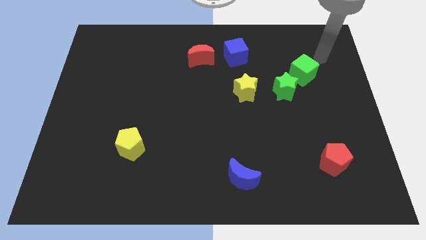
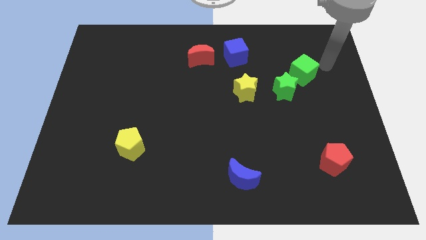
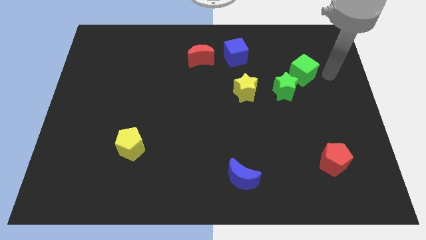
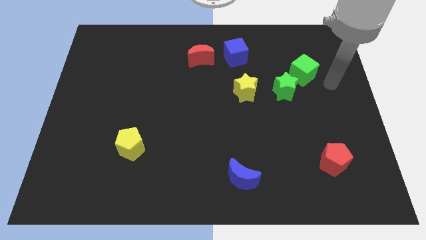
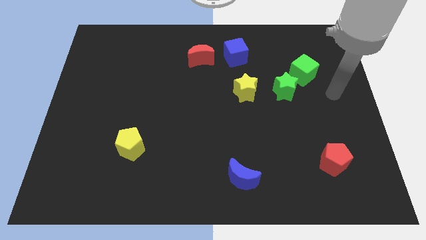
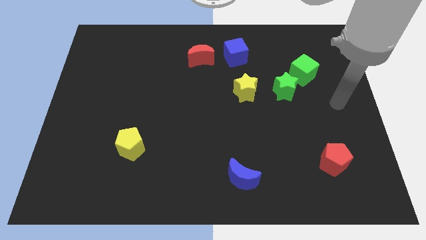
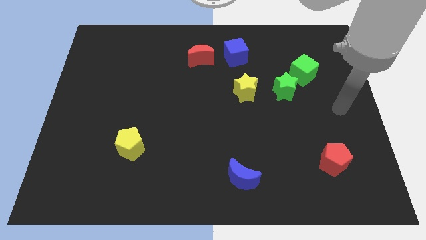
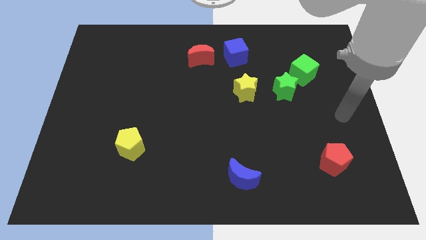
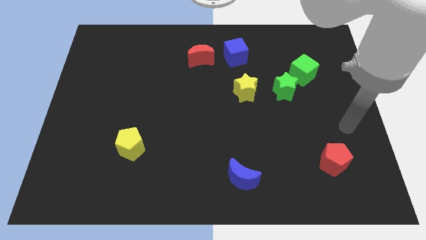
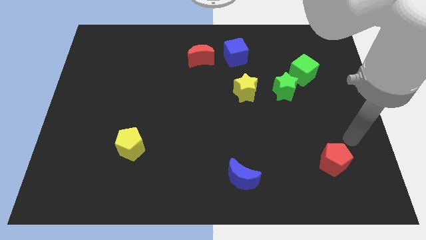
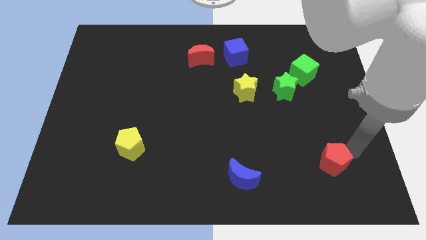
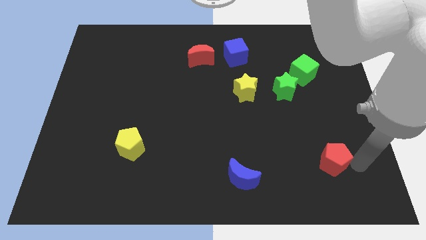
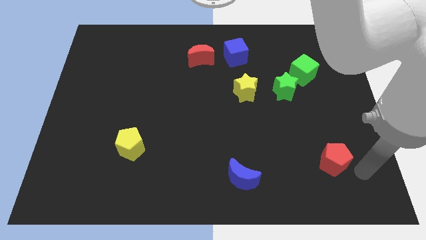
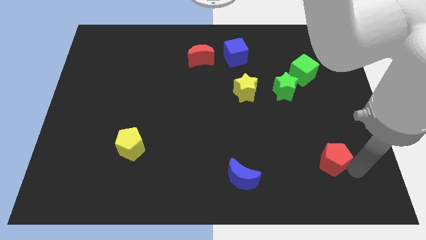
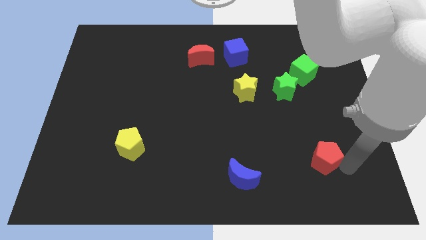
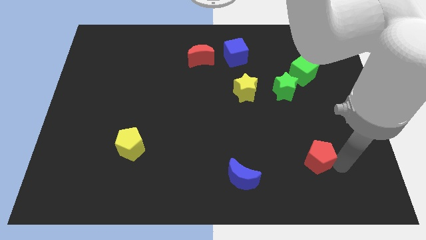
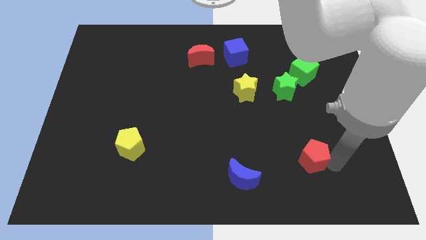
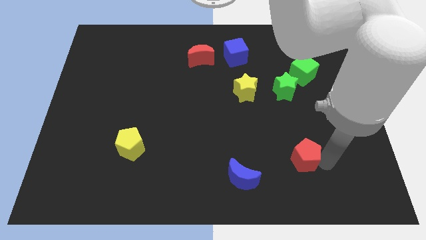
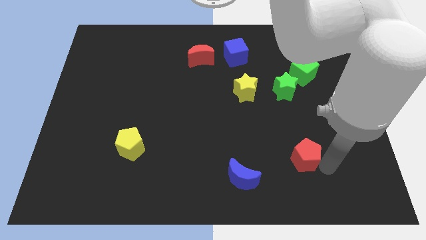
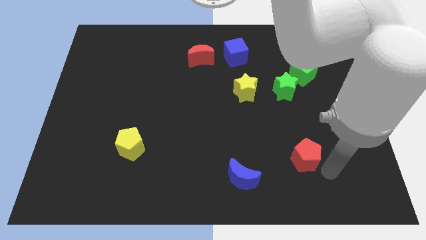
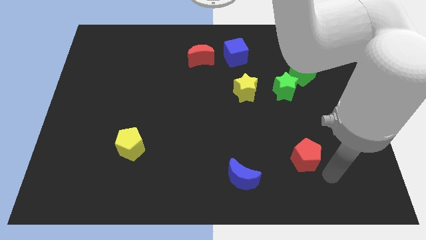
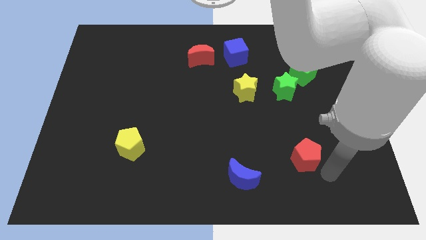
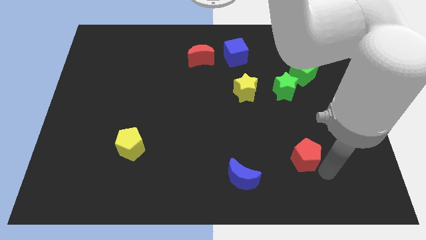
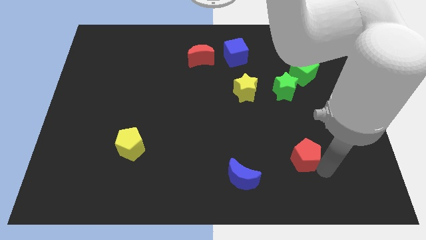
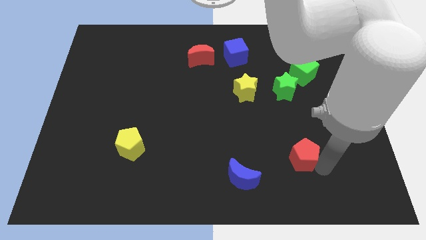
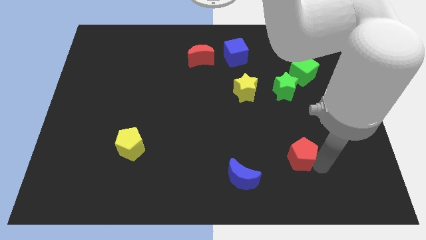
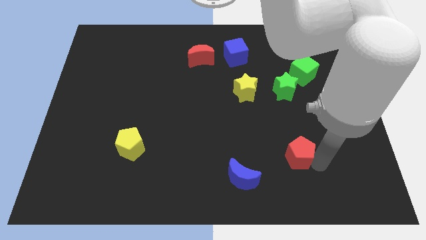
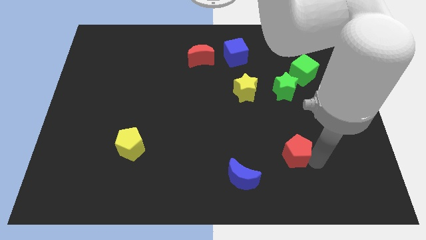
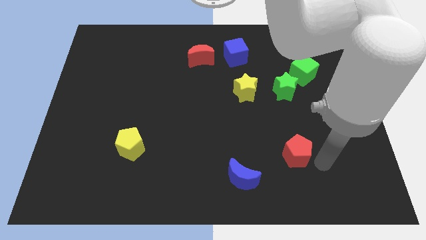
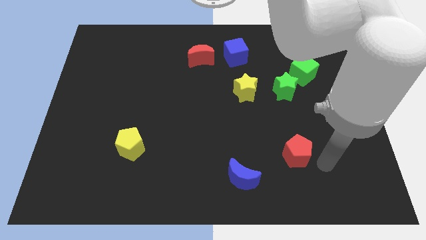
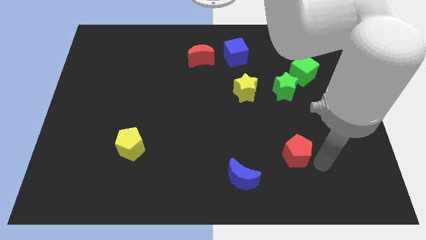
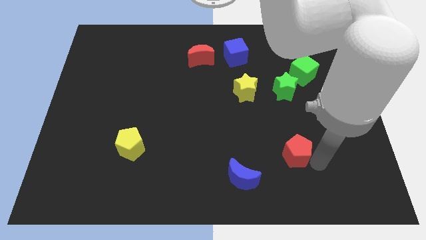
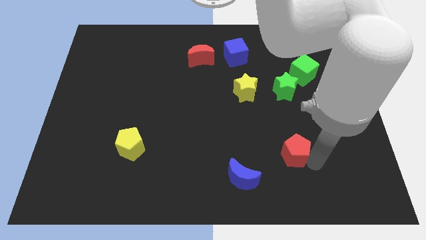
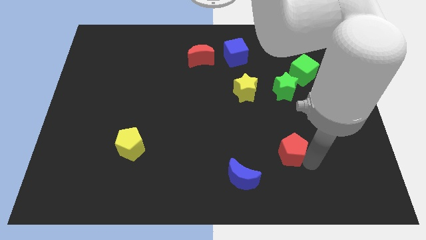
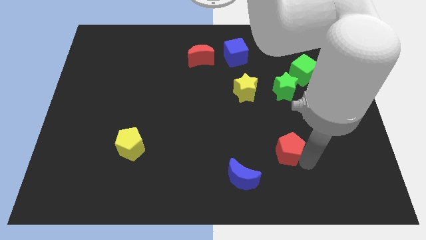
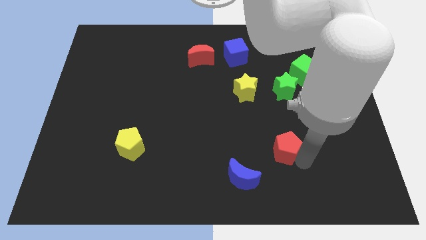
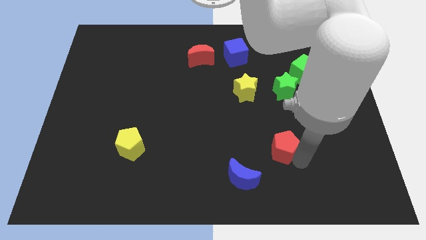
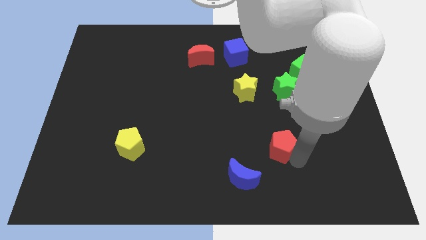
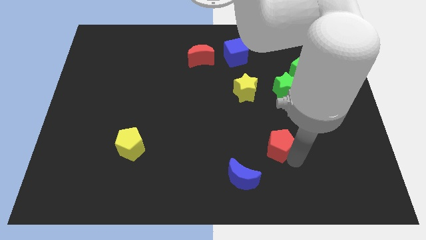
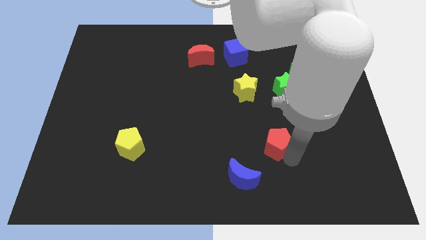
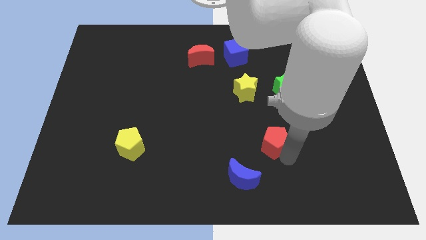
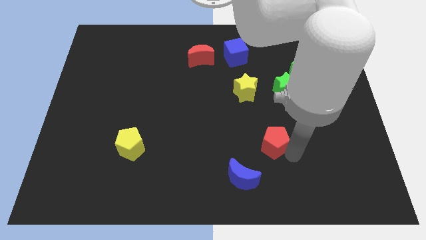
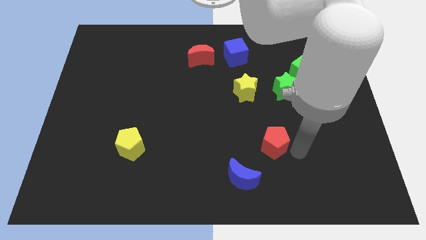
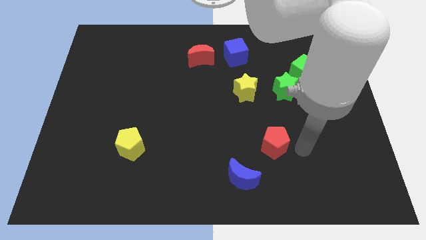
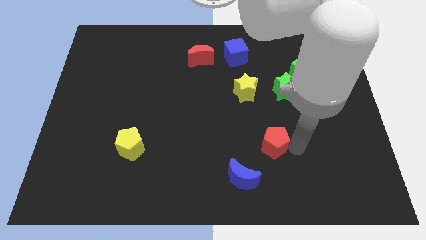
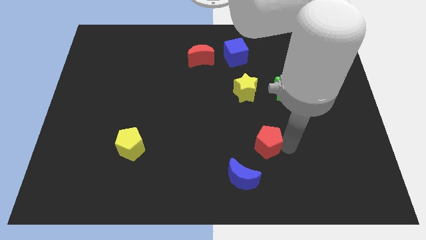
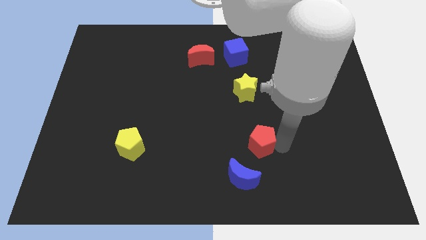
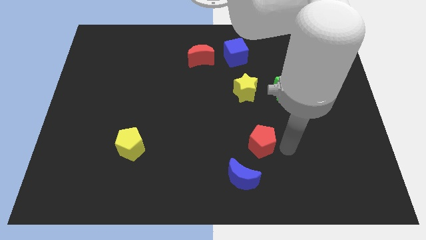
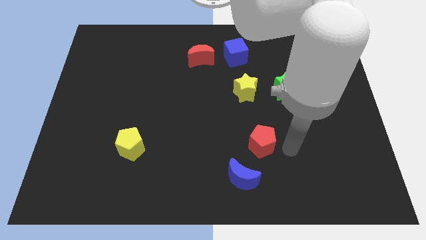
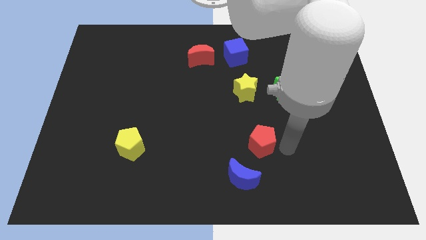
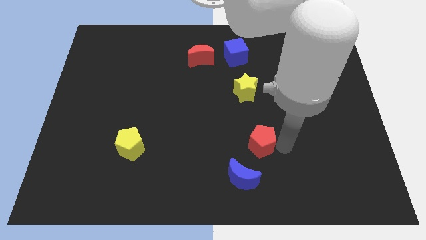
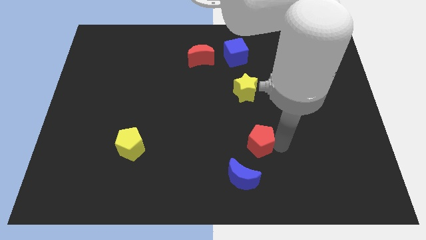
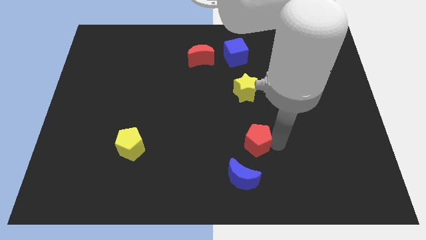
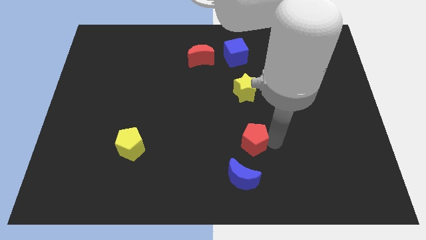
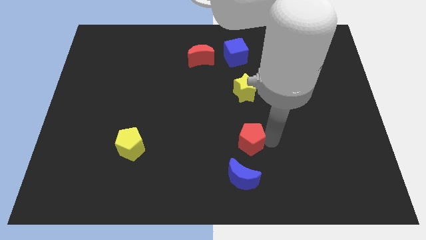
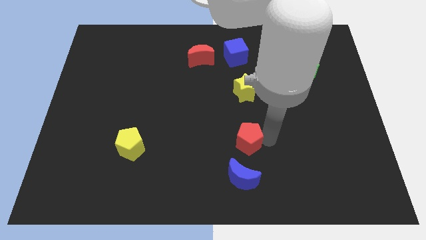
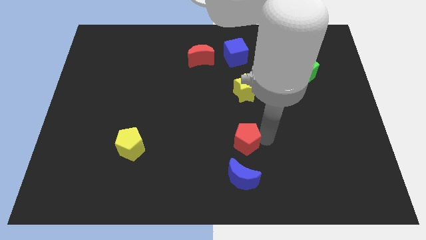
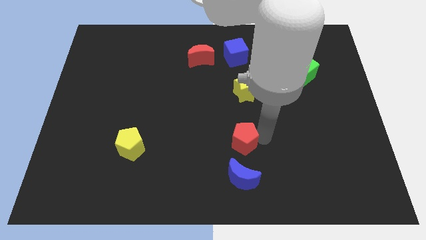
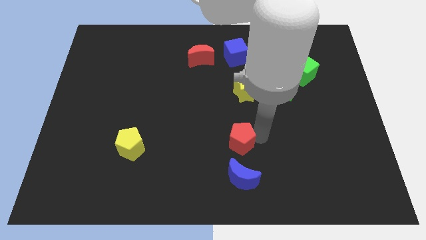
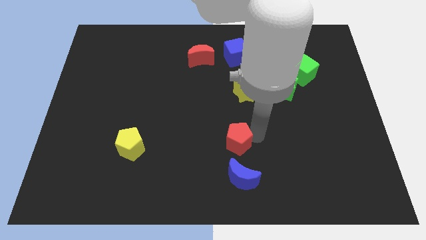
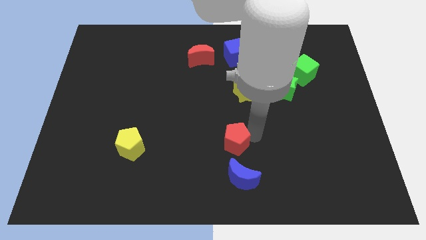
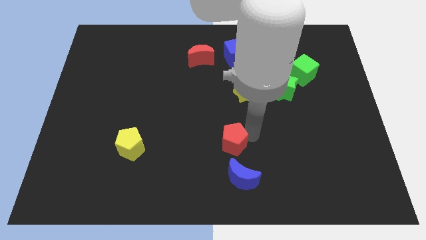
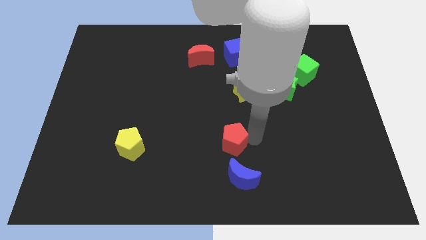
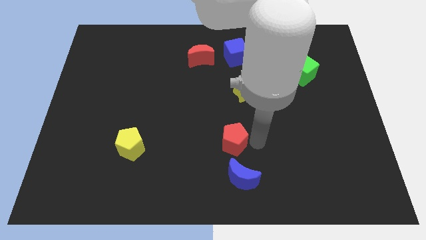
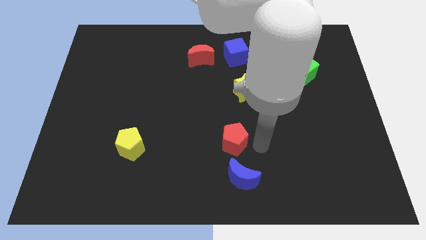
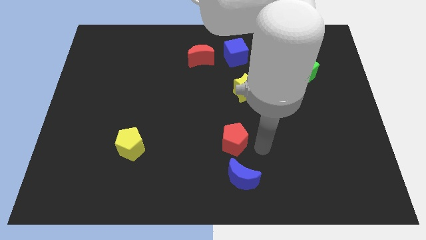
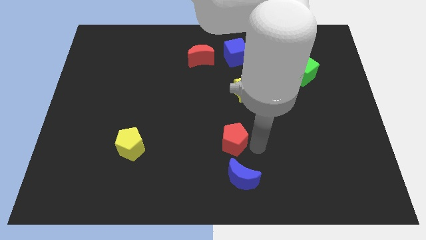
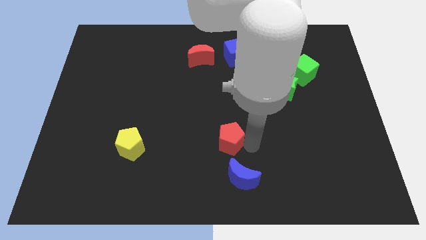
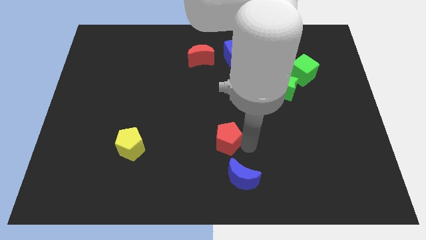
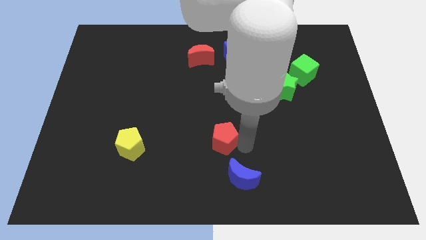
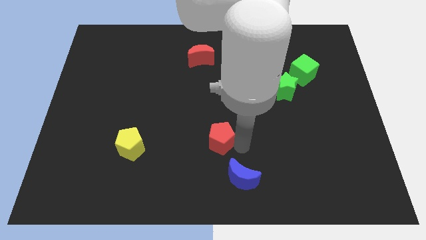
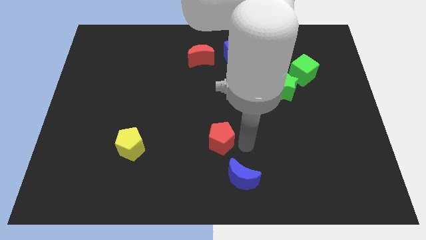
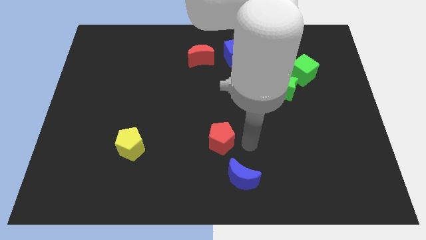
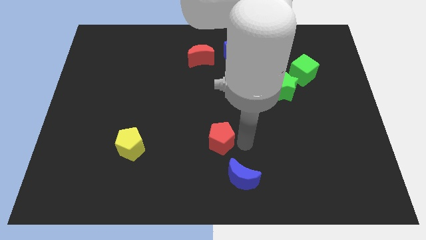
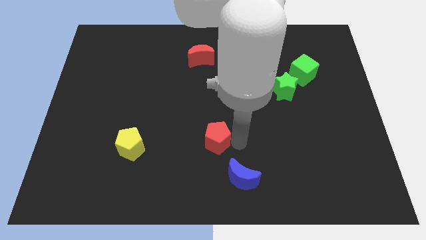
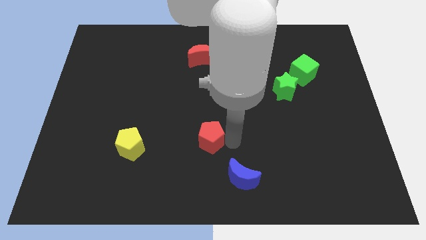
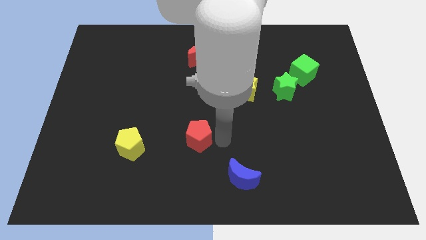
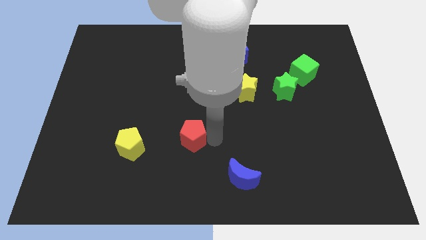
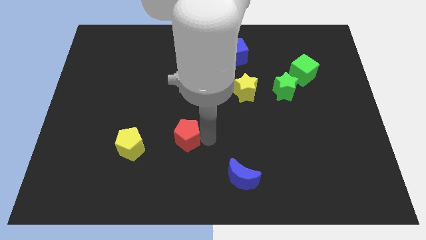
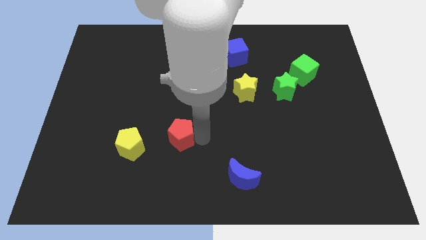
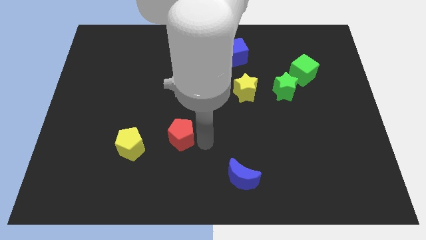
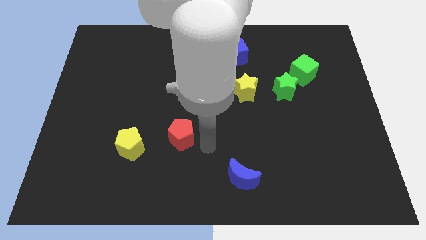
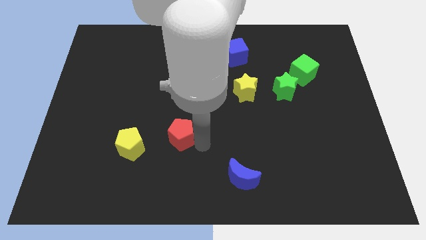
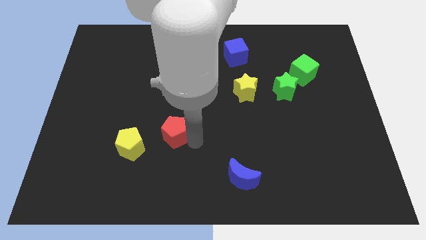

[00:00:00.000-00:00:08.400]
slide the red pentagon to the top right side of the yellow pentagon
